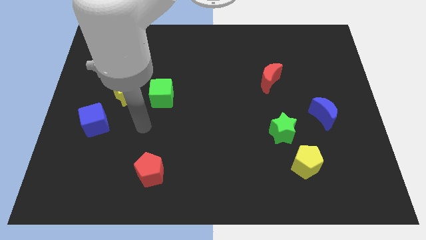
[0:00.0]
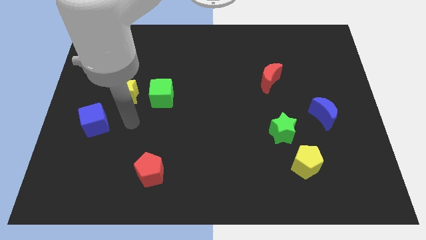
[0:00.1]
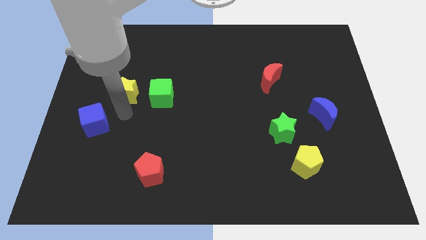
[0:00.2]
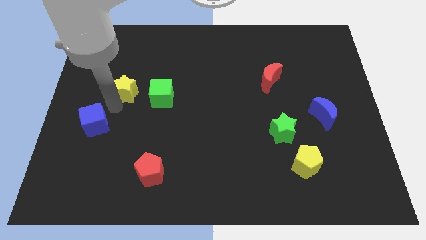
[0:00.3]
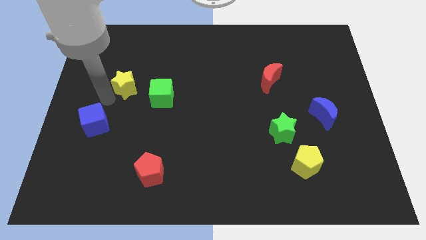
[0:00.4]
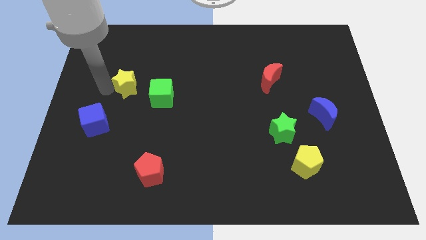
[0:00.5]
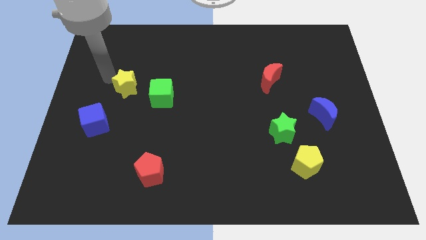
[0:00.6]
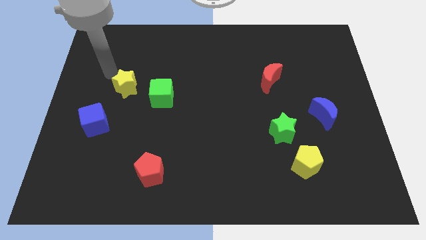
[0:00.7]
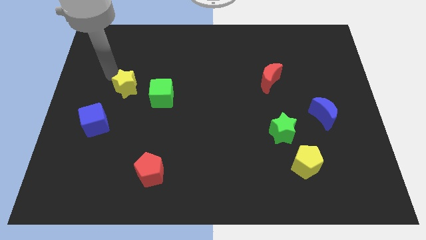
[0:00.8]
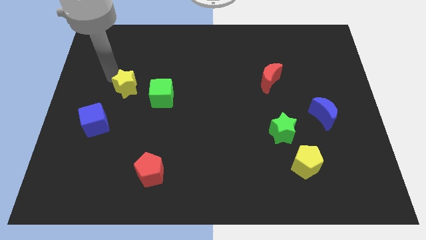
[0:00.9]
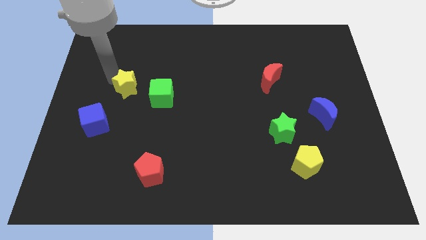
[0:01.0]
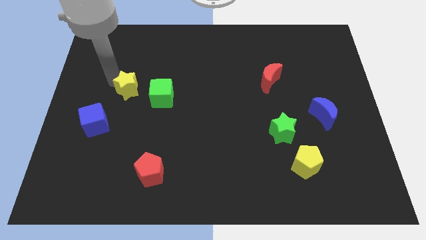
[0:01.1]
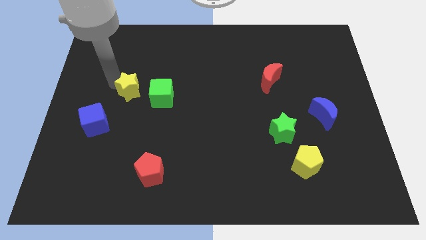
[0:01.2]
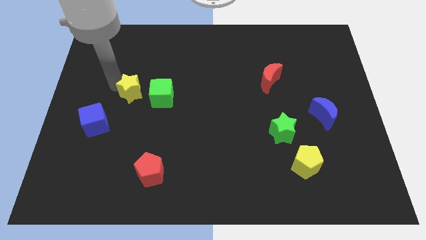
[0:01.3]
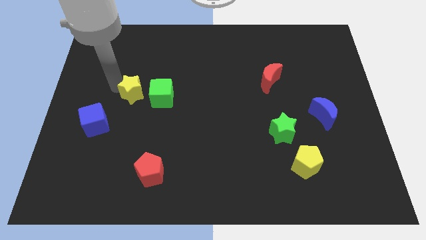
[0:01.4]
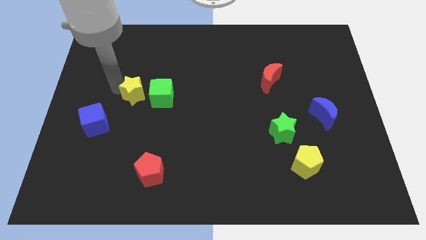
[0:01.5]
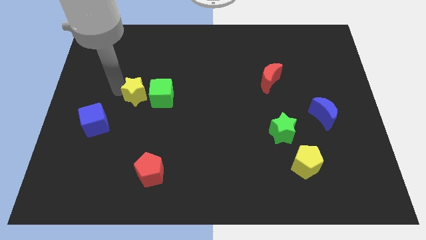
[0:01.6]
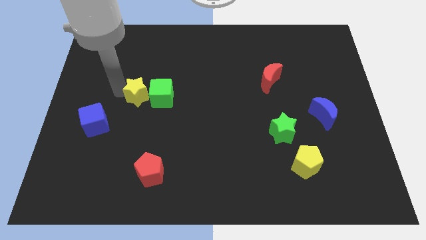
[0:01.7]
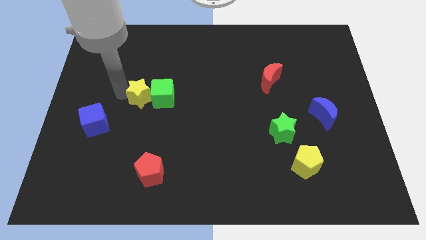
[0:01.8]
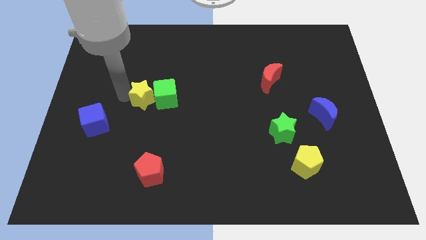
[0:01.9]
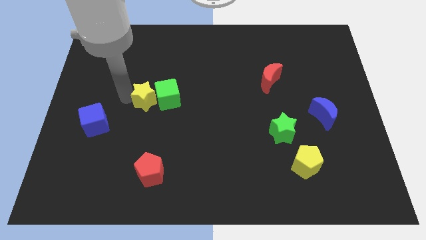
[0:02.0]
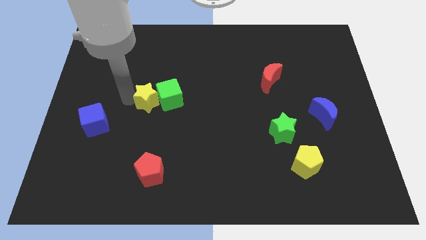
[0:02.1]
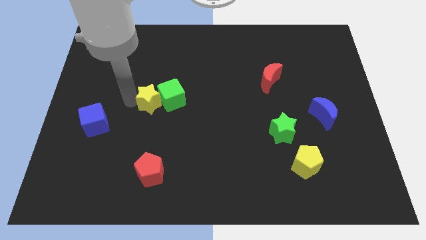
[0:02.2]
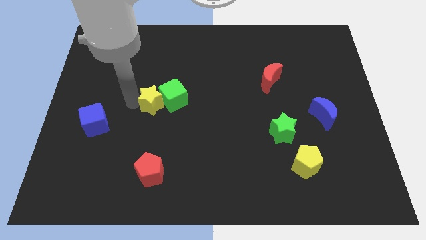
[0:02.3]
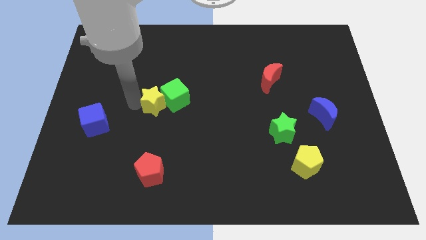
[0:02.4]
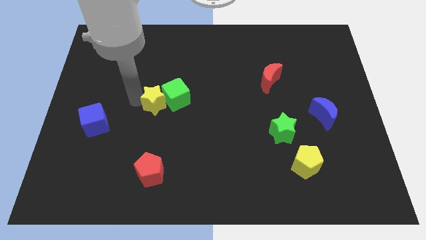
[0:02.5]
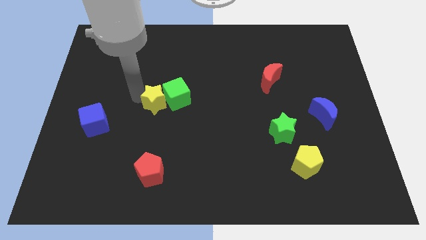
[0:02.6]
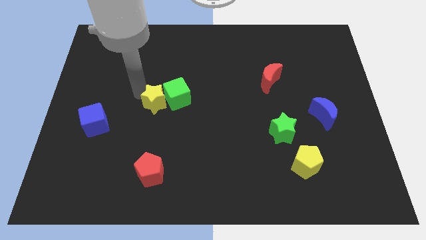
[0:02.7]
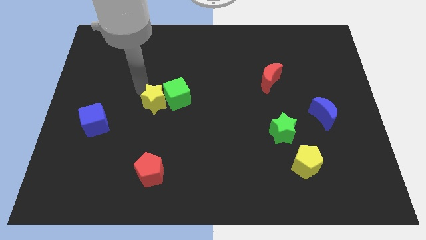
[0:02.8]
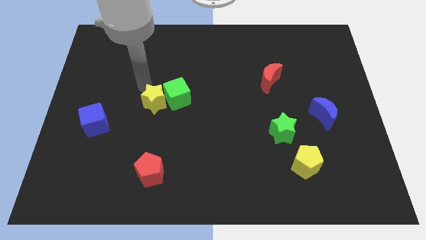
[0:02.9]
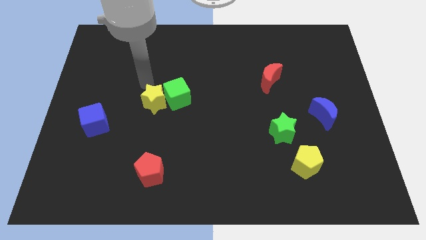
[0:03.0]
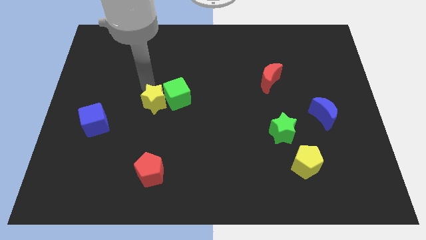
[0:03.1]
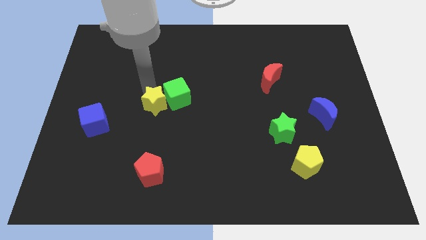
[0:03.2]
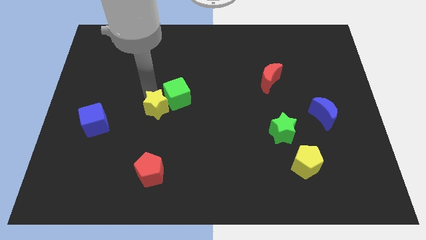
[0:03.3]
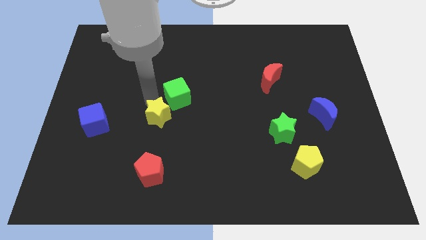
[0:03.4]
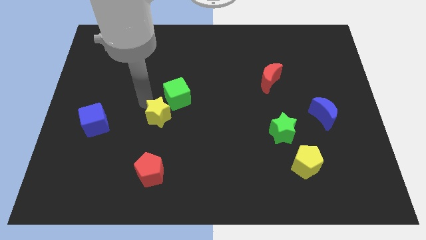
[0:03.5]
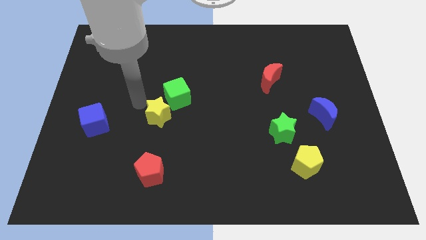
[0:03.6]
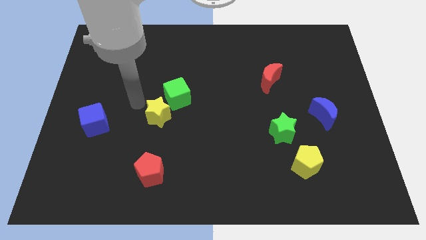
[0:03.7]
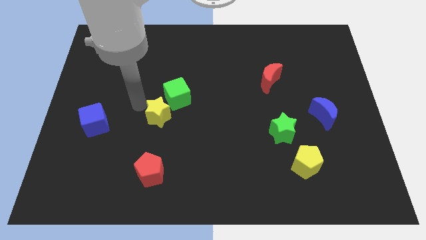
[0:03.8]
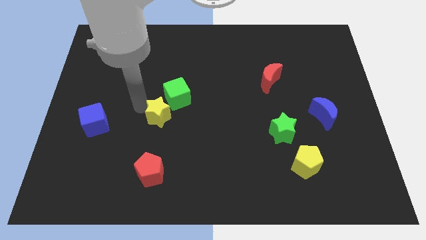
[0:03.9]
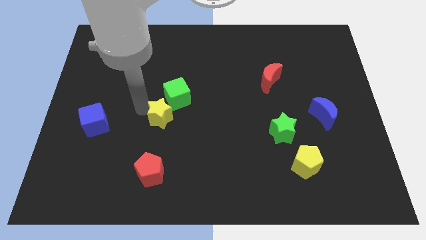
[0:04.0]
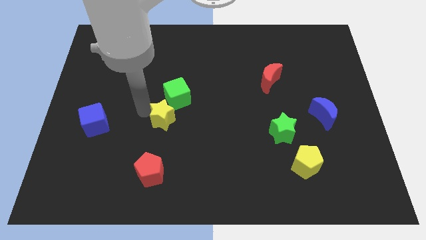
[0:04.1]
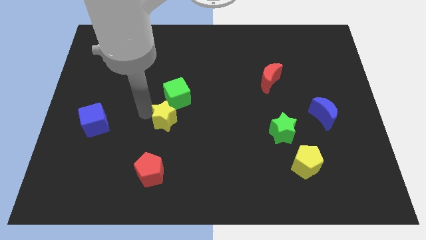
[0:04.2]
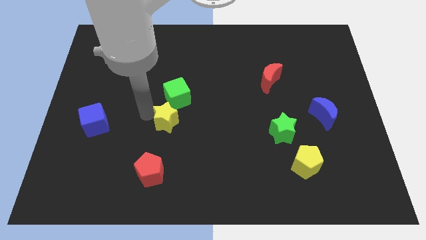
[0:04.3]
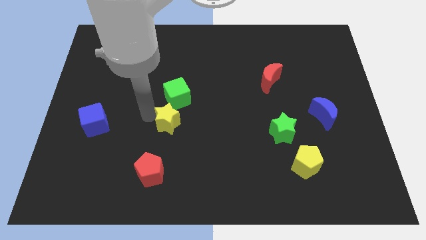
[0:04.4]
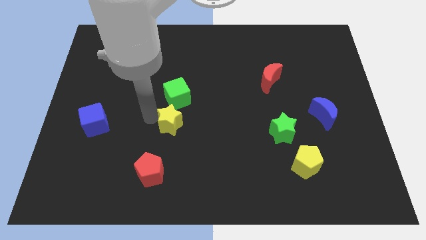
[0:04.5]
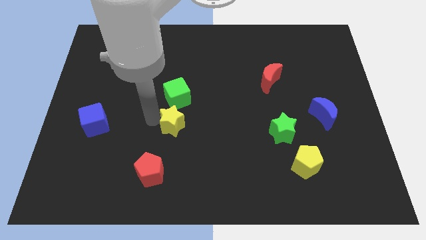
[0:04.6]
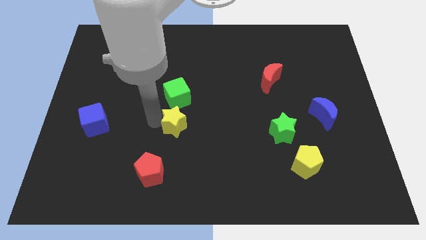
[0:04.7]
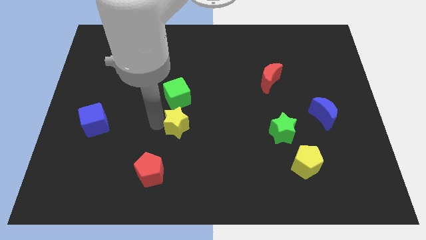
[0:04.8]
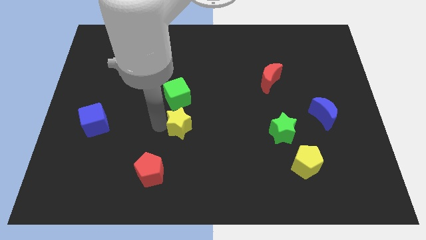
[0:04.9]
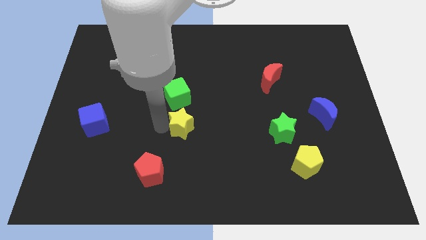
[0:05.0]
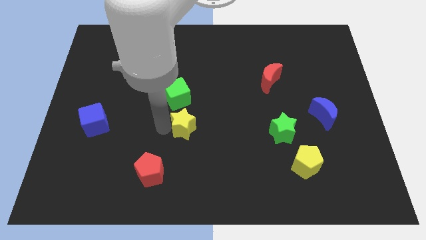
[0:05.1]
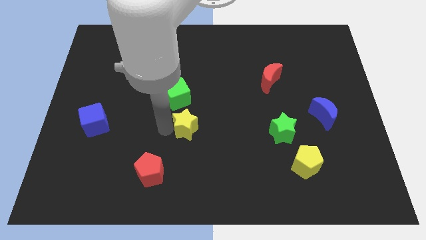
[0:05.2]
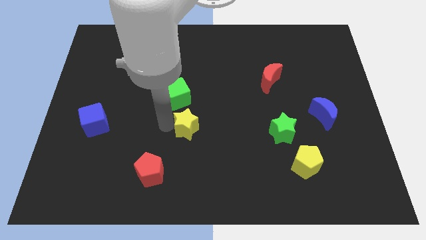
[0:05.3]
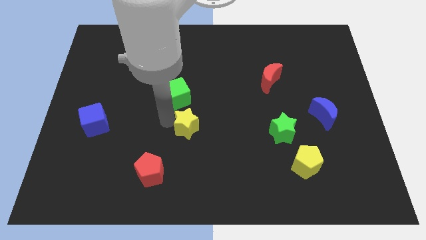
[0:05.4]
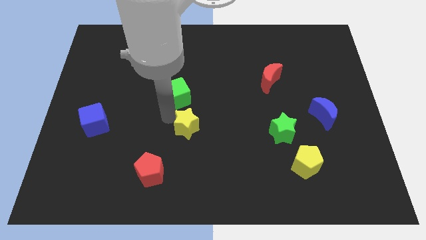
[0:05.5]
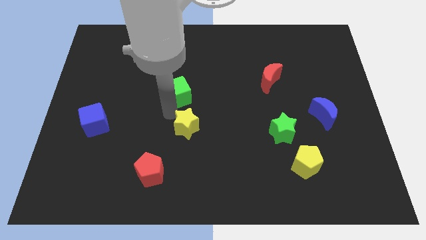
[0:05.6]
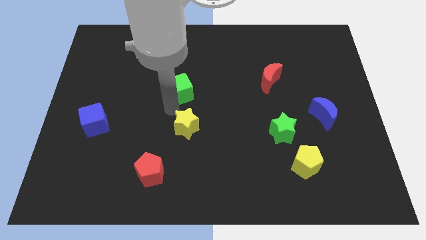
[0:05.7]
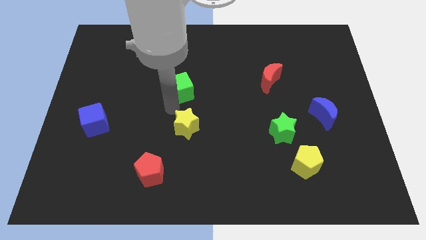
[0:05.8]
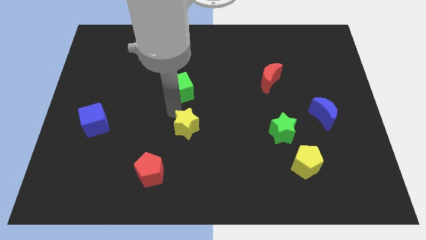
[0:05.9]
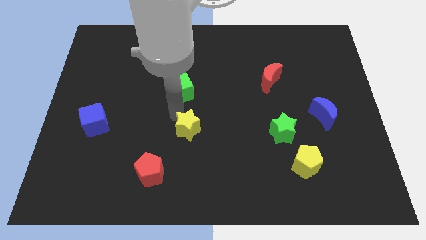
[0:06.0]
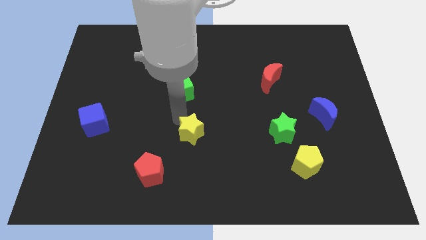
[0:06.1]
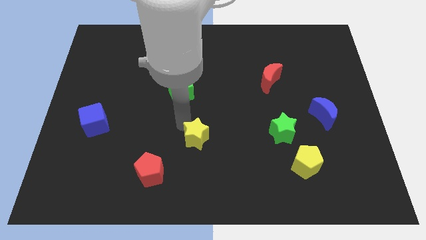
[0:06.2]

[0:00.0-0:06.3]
move the yellow star downwards and to the right diagonally

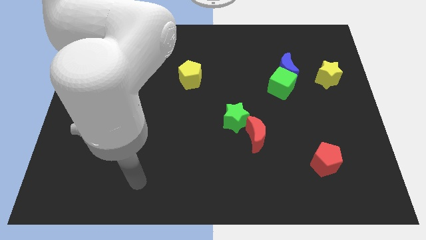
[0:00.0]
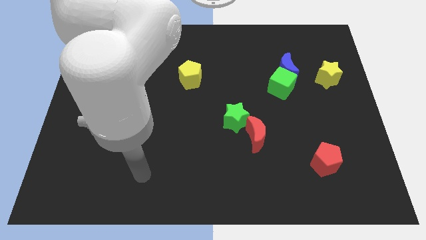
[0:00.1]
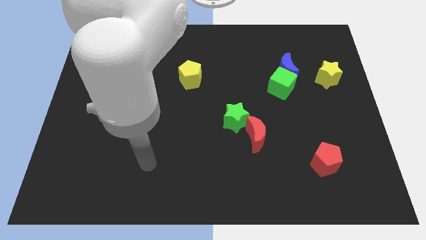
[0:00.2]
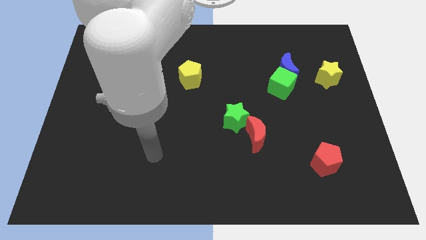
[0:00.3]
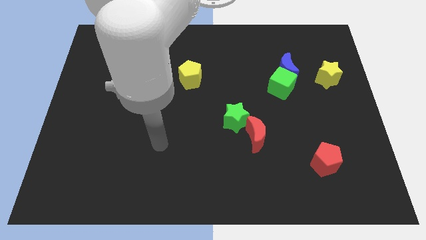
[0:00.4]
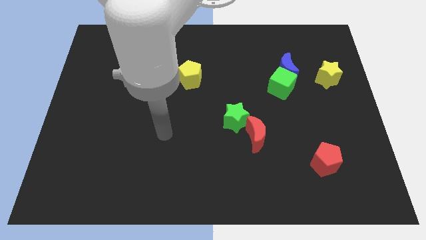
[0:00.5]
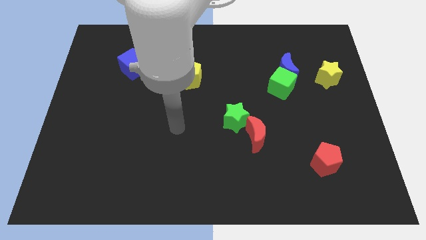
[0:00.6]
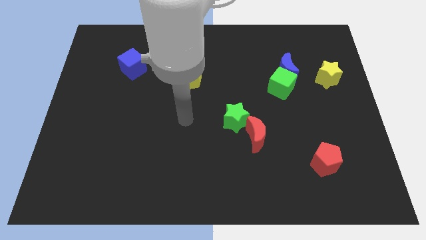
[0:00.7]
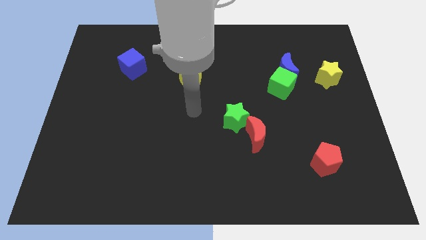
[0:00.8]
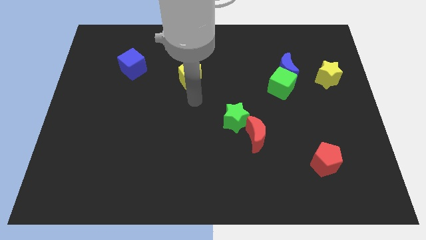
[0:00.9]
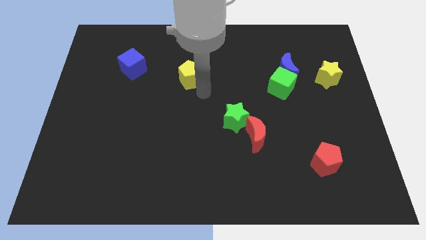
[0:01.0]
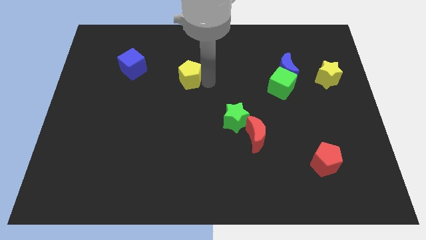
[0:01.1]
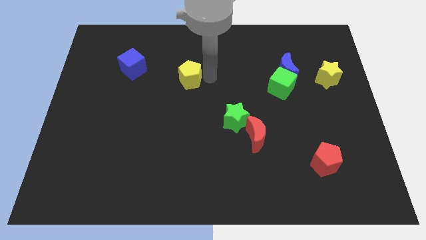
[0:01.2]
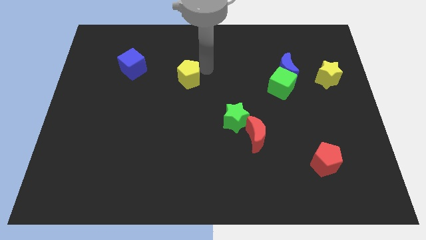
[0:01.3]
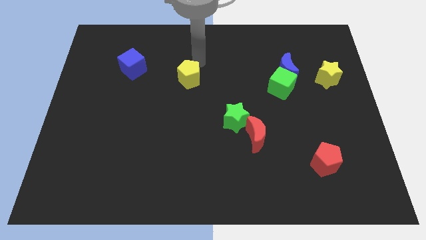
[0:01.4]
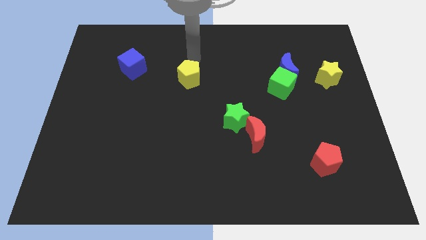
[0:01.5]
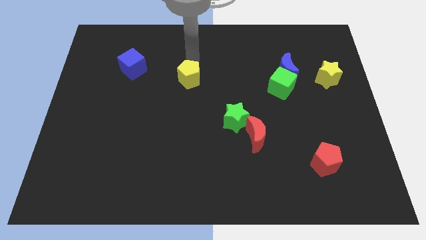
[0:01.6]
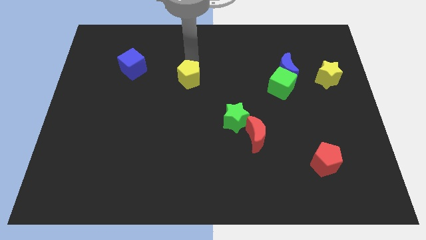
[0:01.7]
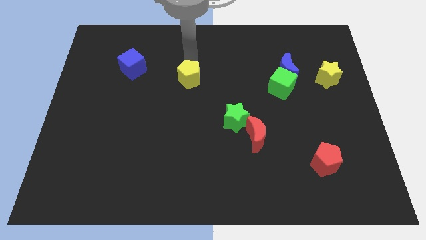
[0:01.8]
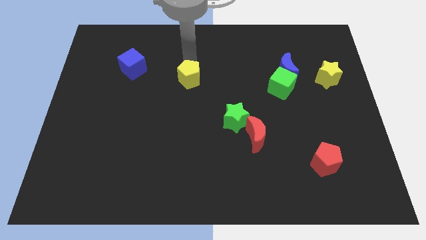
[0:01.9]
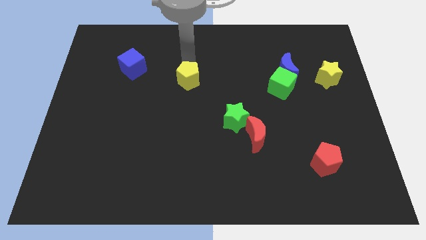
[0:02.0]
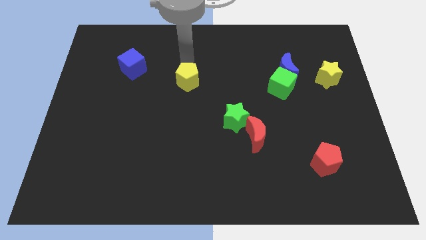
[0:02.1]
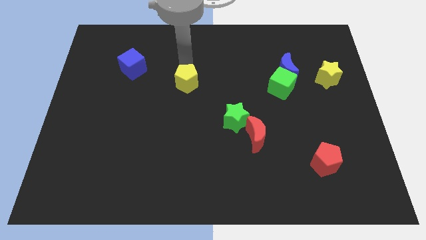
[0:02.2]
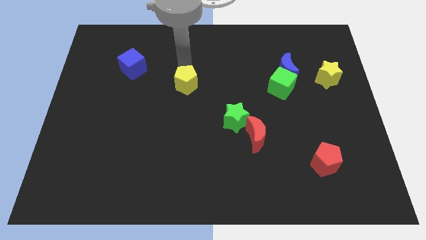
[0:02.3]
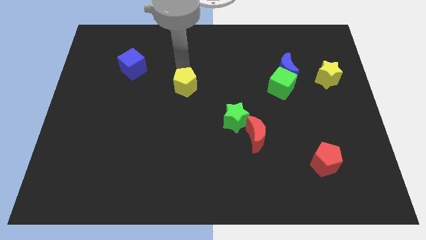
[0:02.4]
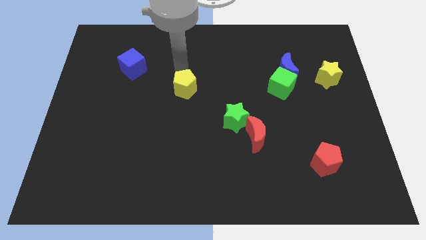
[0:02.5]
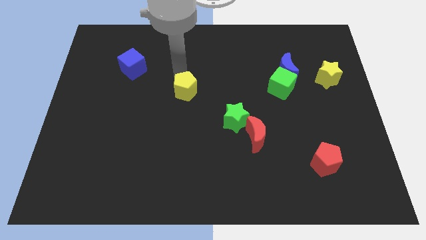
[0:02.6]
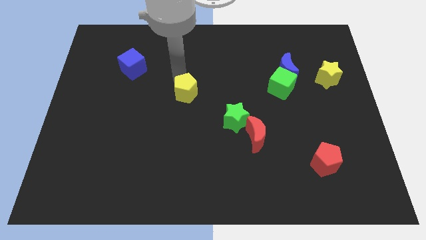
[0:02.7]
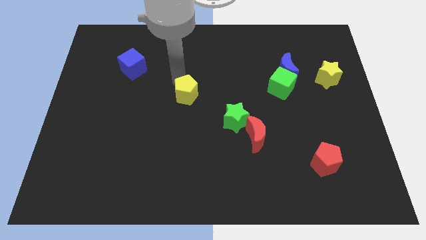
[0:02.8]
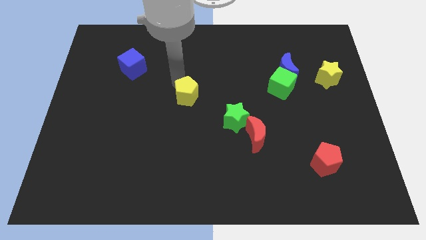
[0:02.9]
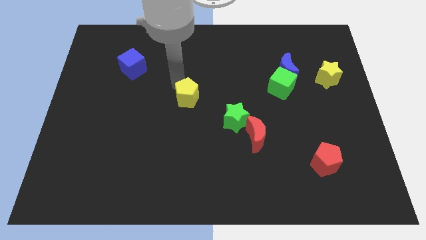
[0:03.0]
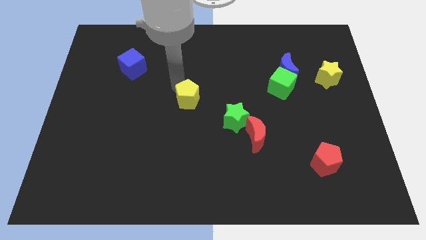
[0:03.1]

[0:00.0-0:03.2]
slightly move the yellow pentagon downwards
